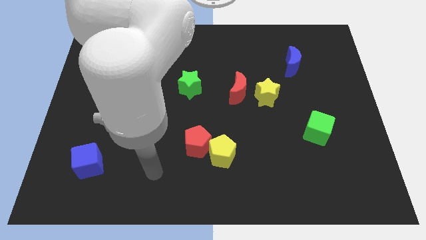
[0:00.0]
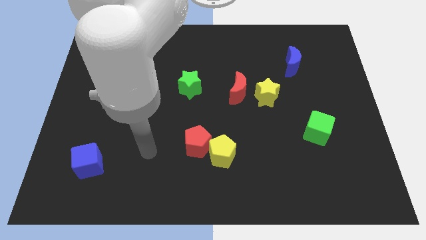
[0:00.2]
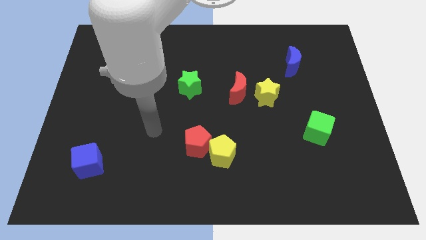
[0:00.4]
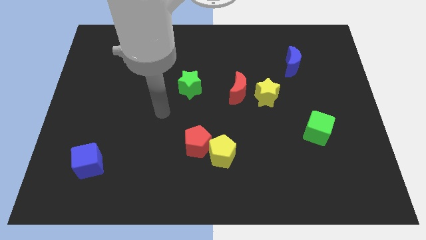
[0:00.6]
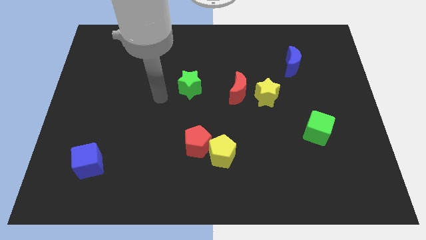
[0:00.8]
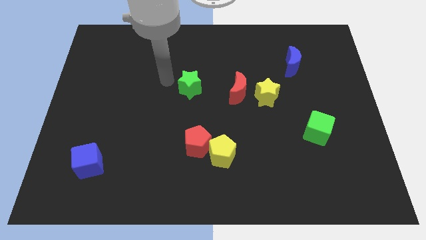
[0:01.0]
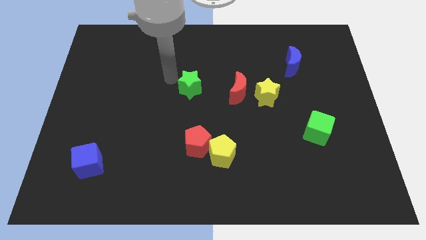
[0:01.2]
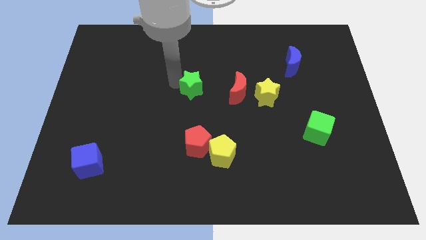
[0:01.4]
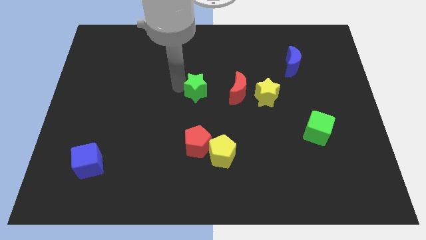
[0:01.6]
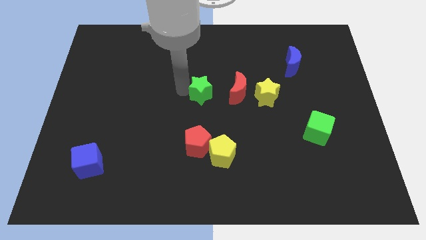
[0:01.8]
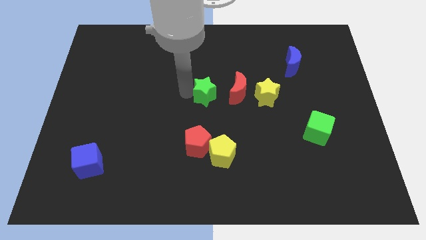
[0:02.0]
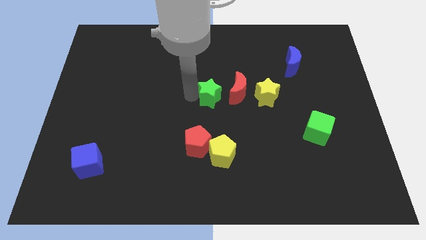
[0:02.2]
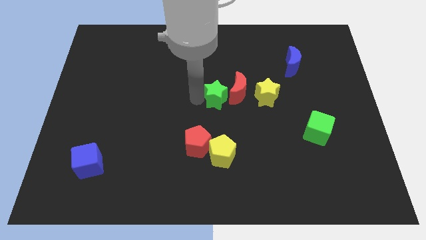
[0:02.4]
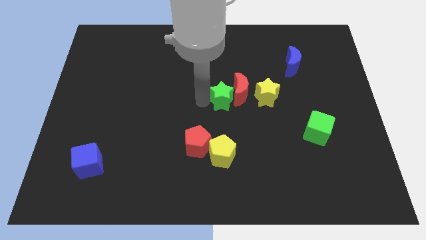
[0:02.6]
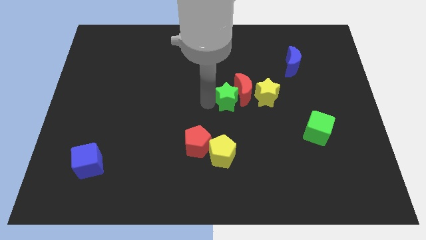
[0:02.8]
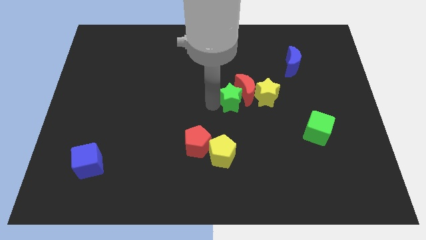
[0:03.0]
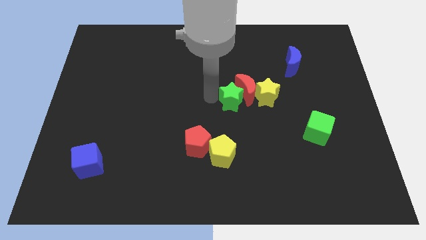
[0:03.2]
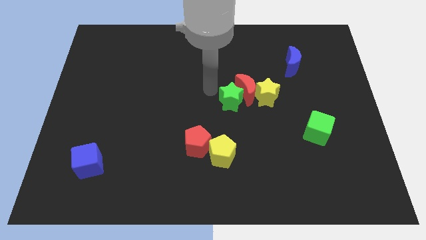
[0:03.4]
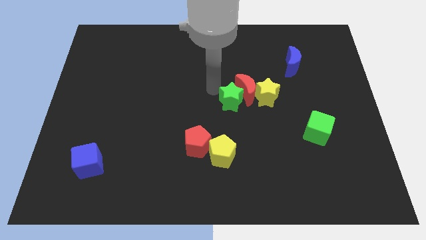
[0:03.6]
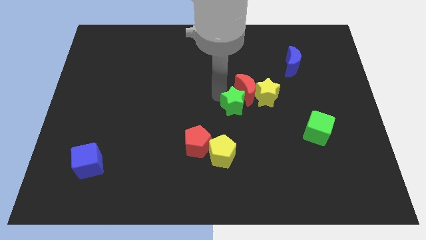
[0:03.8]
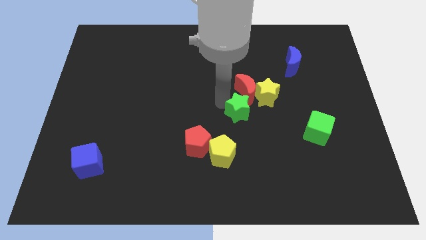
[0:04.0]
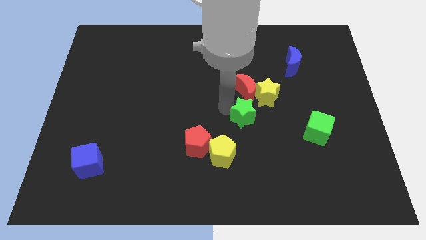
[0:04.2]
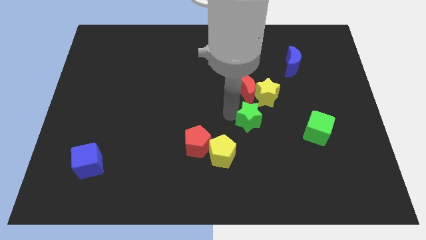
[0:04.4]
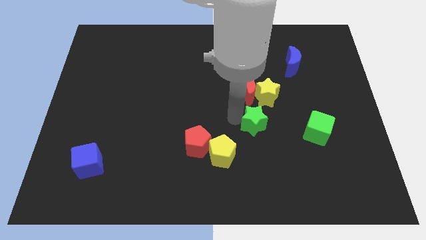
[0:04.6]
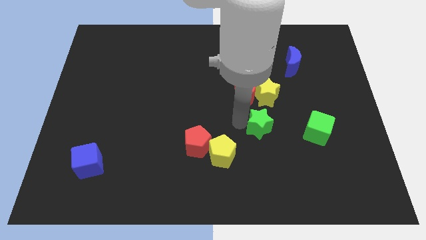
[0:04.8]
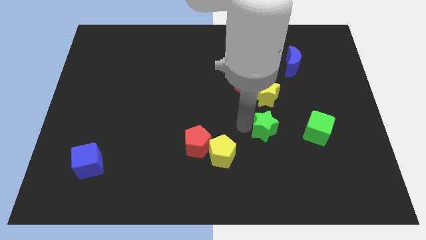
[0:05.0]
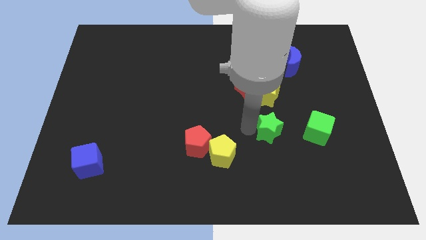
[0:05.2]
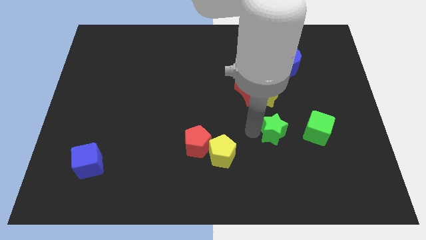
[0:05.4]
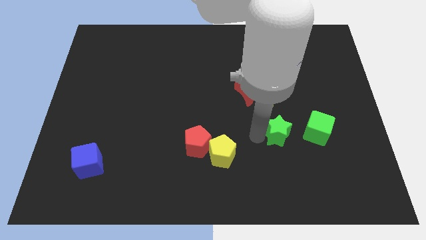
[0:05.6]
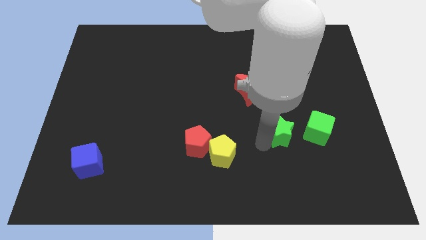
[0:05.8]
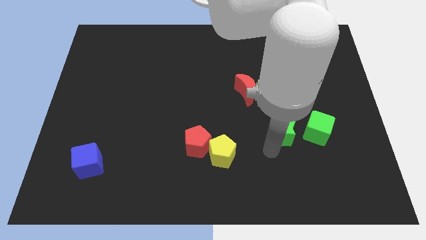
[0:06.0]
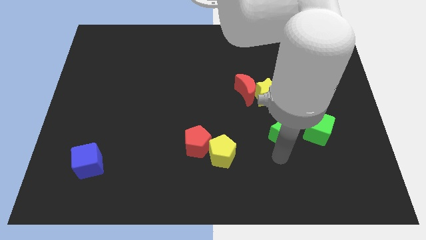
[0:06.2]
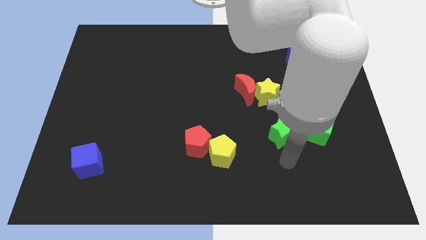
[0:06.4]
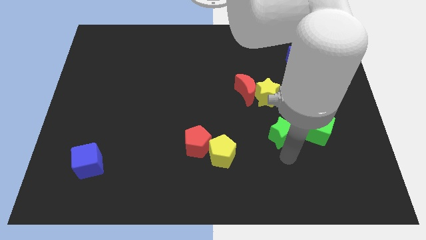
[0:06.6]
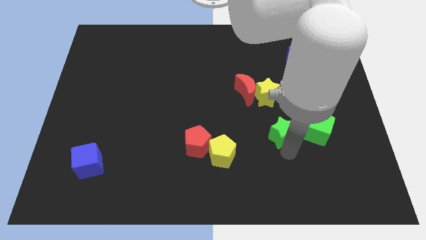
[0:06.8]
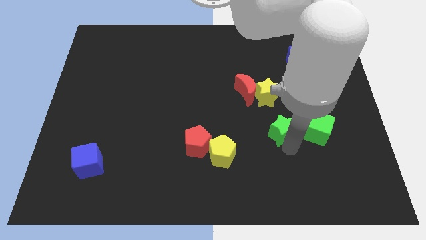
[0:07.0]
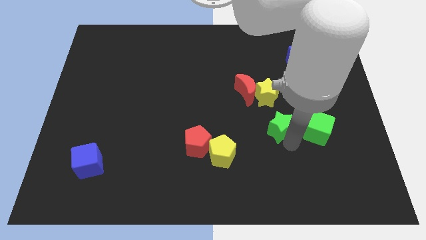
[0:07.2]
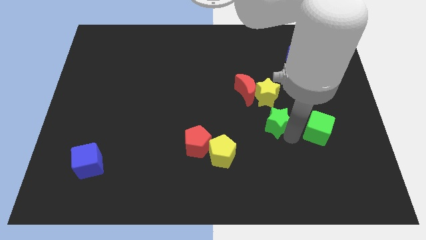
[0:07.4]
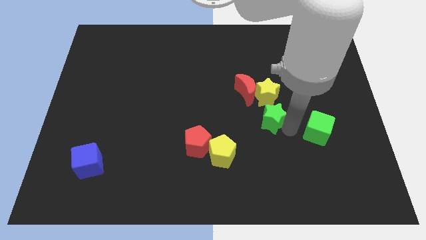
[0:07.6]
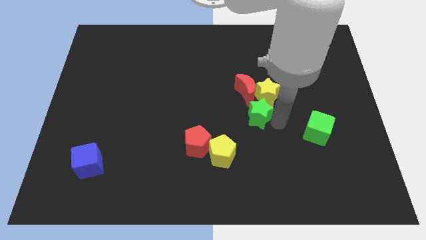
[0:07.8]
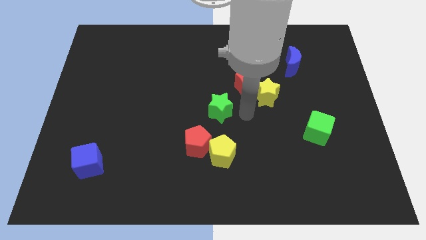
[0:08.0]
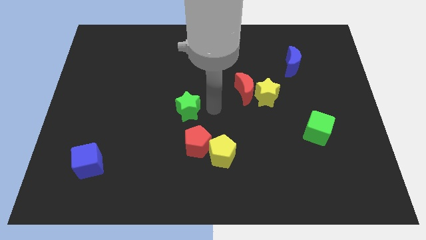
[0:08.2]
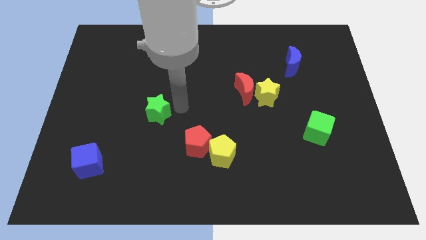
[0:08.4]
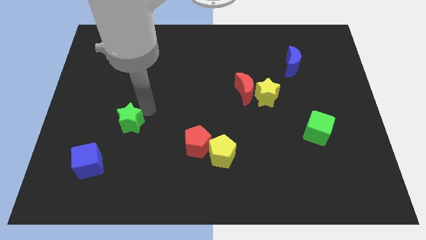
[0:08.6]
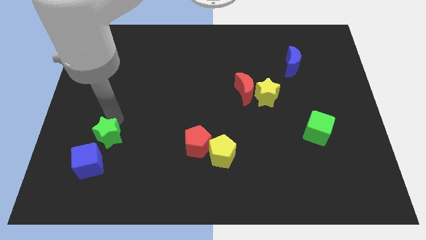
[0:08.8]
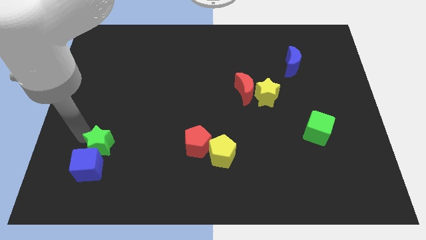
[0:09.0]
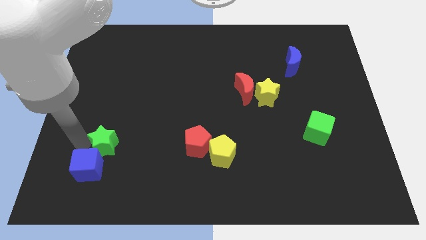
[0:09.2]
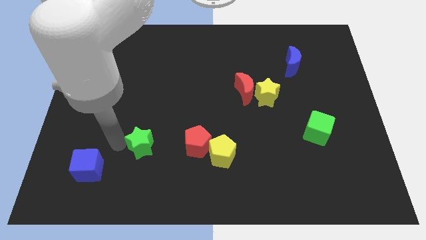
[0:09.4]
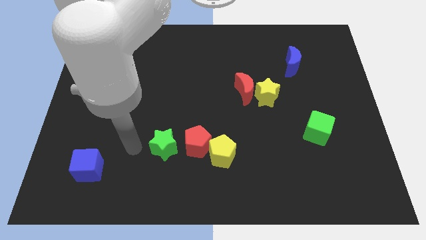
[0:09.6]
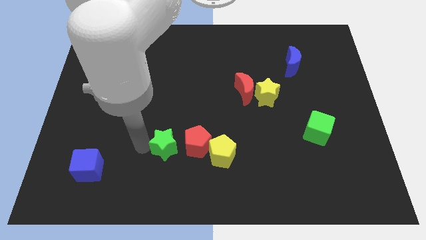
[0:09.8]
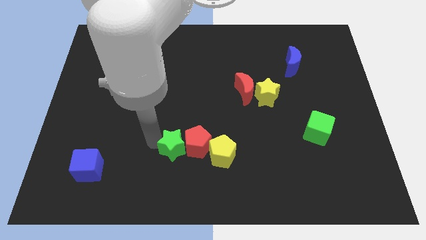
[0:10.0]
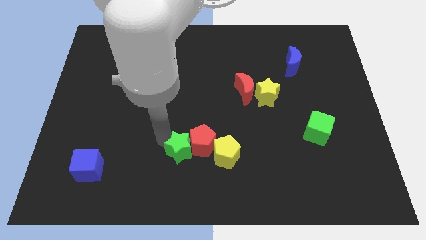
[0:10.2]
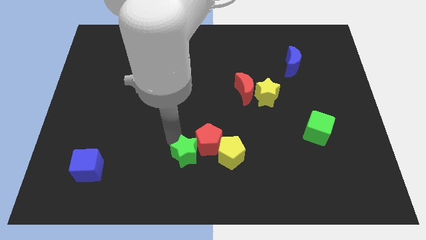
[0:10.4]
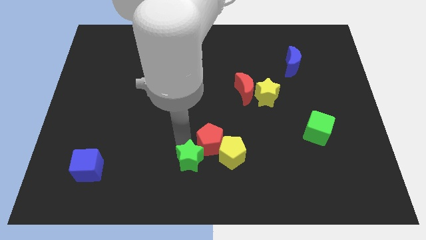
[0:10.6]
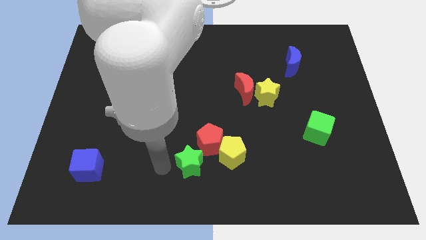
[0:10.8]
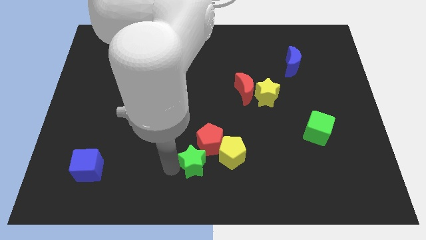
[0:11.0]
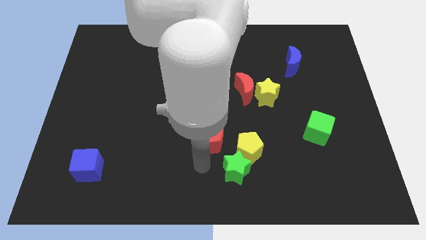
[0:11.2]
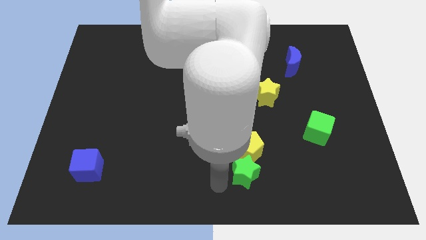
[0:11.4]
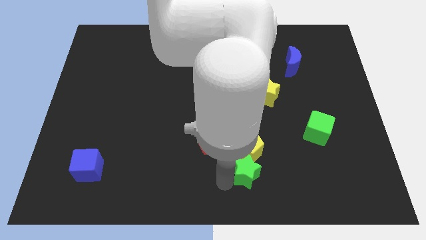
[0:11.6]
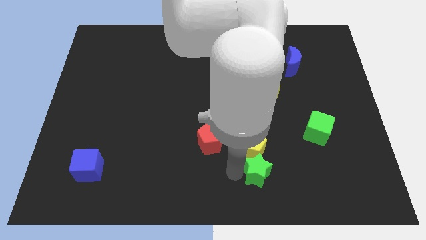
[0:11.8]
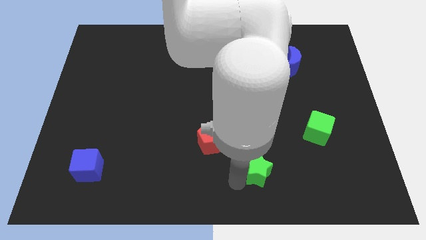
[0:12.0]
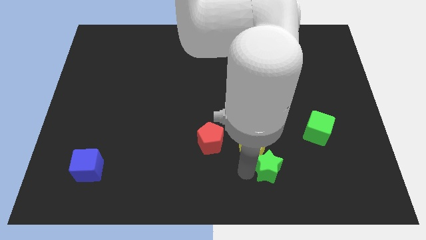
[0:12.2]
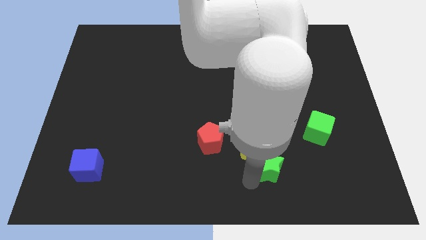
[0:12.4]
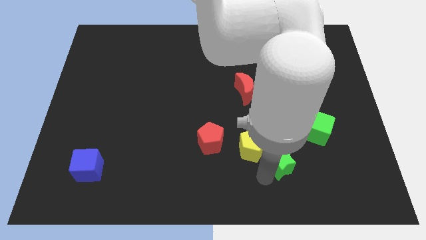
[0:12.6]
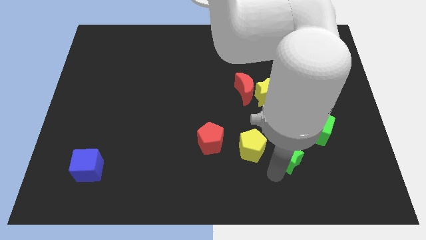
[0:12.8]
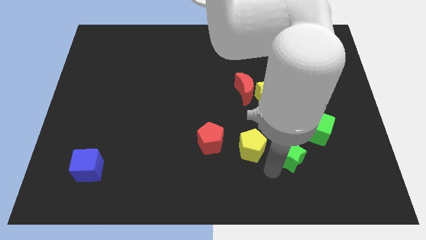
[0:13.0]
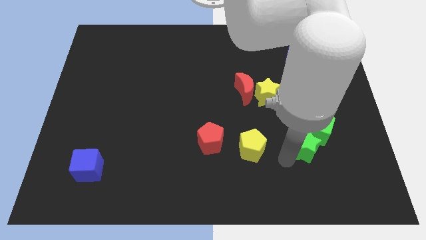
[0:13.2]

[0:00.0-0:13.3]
push the green star close to the green cube
